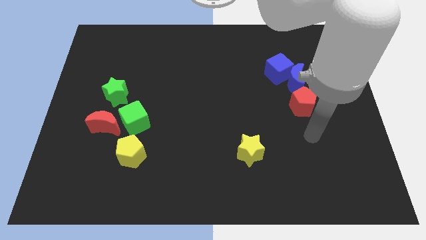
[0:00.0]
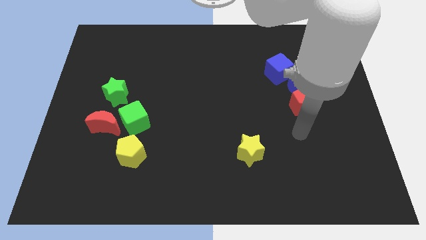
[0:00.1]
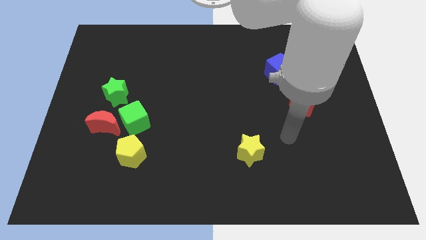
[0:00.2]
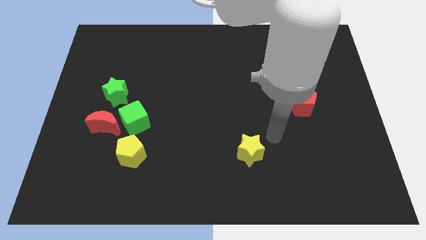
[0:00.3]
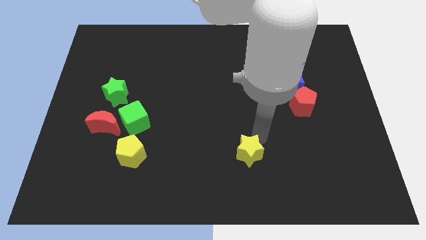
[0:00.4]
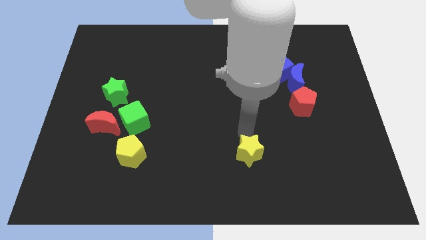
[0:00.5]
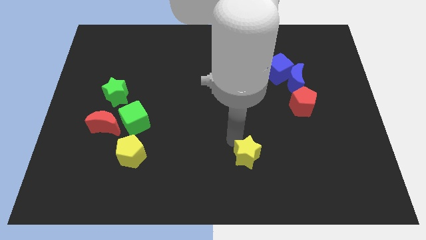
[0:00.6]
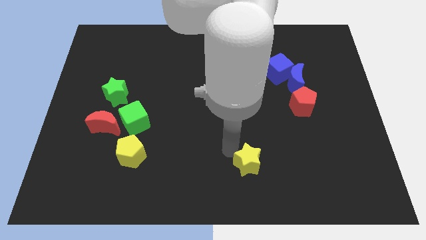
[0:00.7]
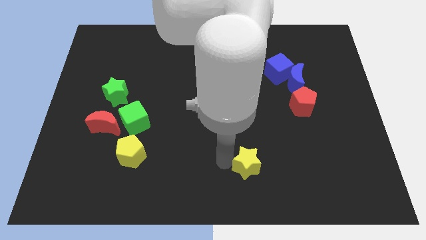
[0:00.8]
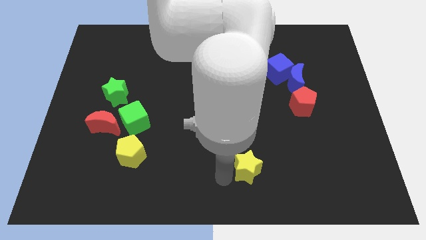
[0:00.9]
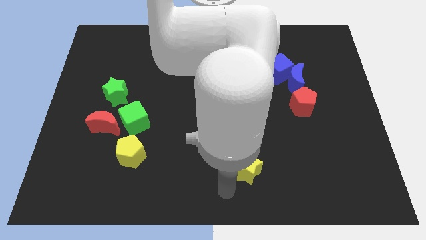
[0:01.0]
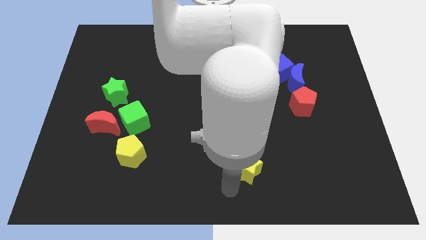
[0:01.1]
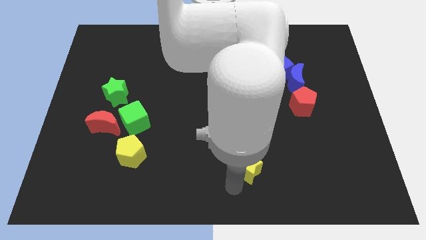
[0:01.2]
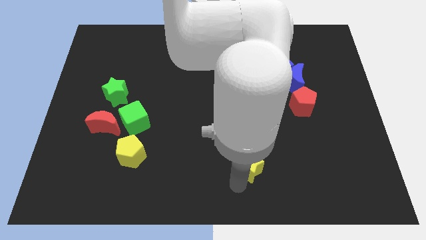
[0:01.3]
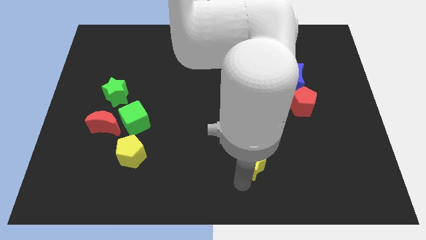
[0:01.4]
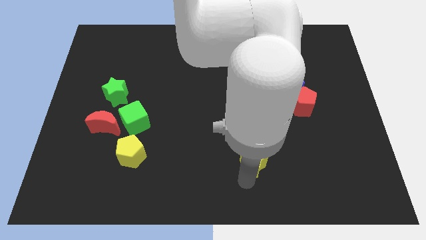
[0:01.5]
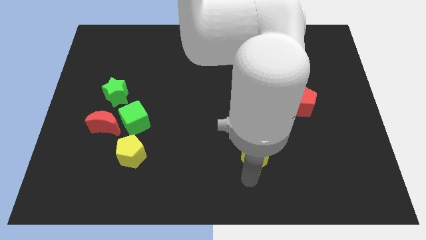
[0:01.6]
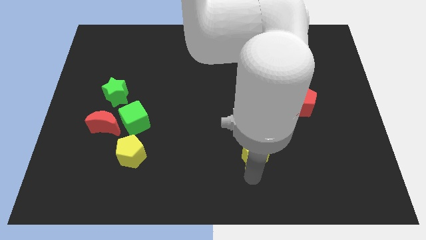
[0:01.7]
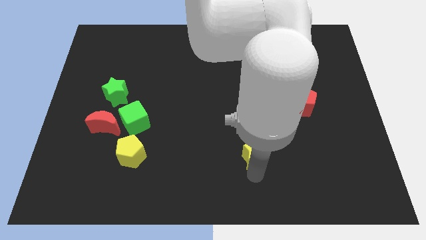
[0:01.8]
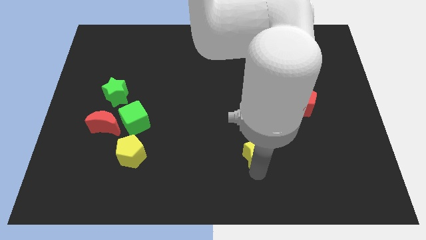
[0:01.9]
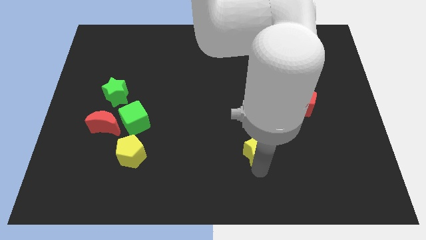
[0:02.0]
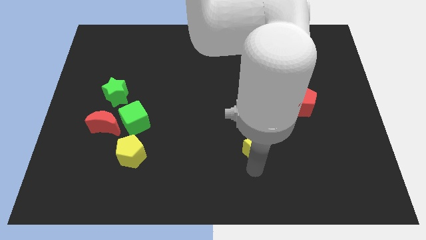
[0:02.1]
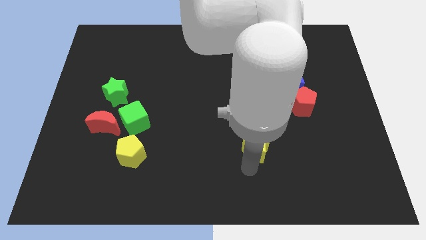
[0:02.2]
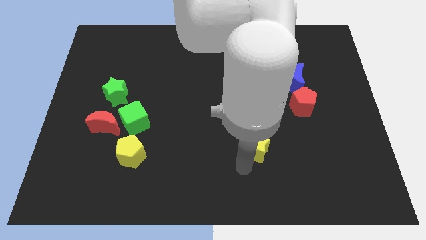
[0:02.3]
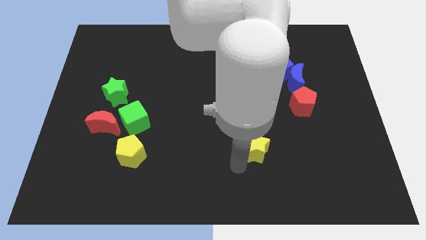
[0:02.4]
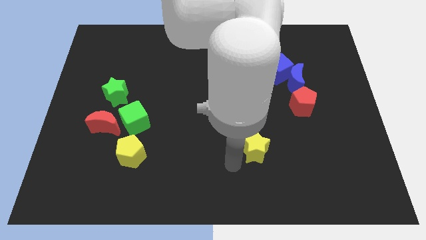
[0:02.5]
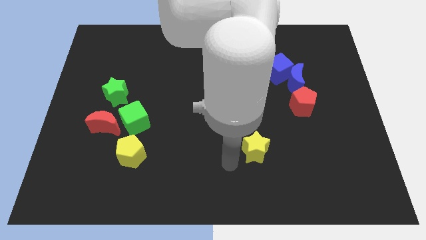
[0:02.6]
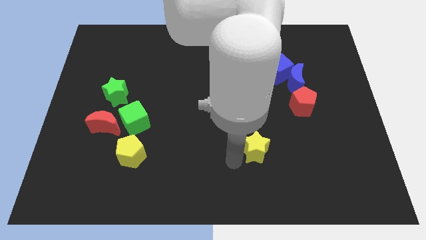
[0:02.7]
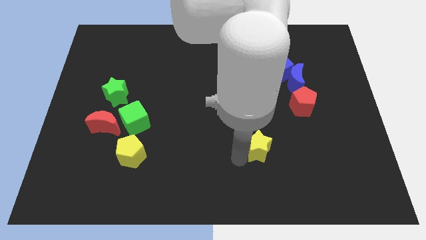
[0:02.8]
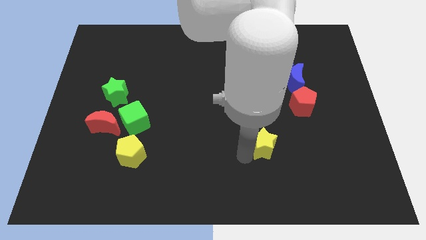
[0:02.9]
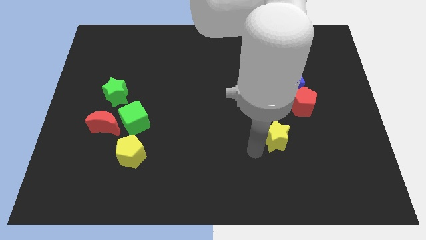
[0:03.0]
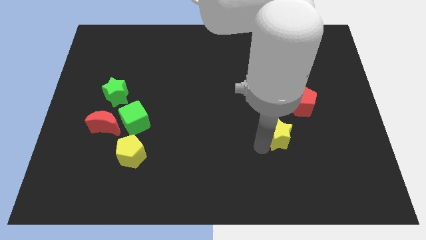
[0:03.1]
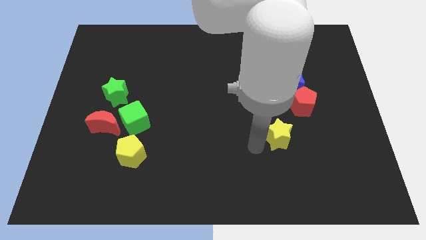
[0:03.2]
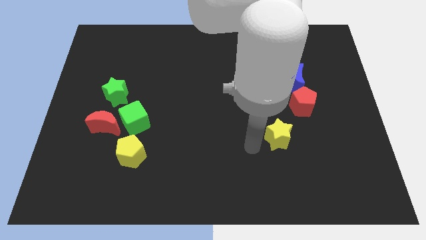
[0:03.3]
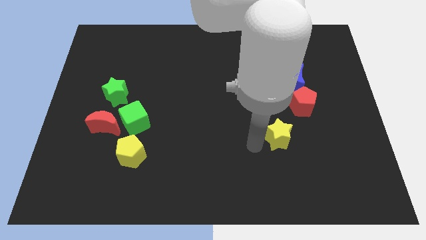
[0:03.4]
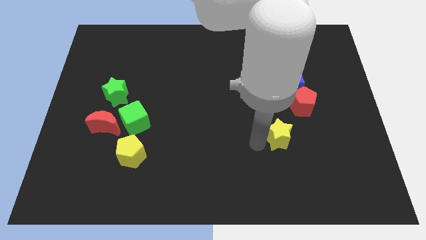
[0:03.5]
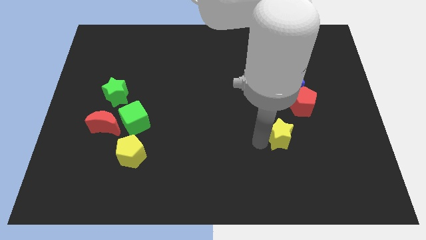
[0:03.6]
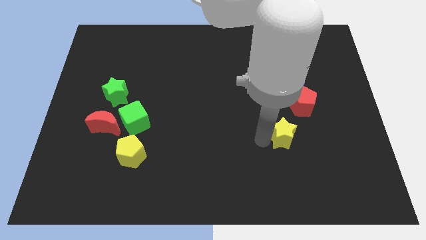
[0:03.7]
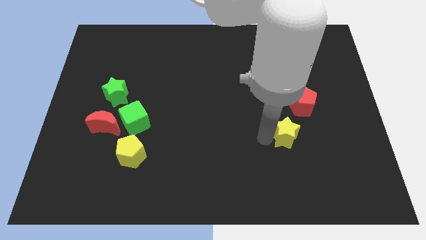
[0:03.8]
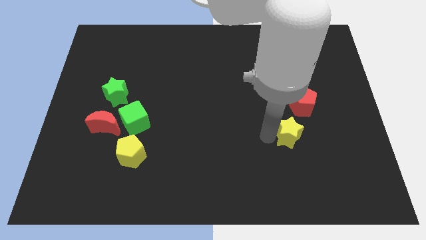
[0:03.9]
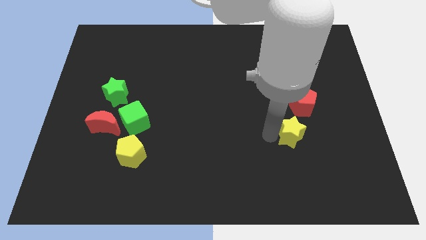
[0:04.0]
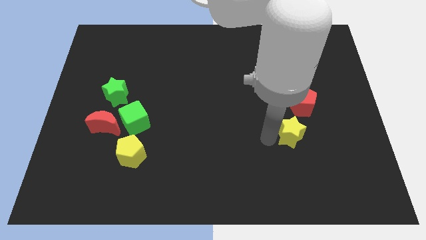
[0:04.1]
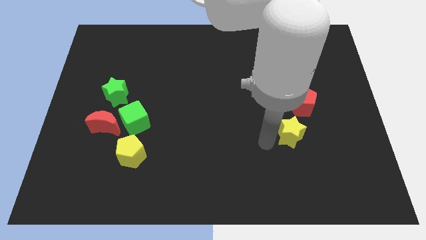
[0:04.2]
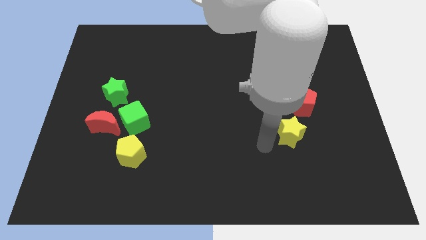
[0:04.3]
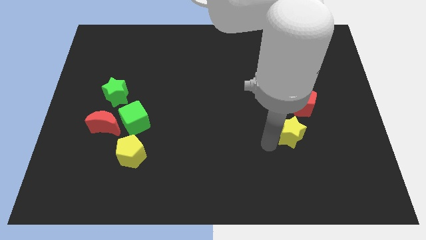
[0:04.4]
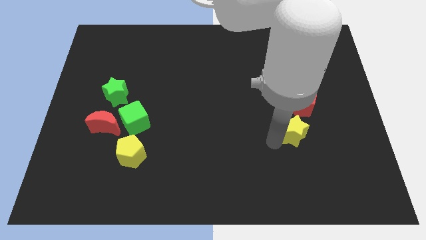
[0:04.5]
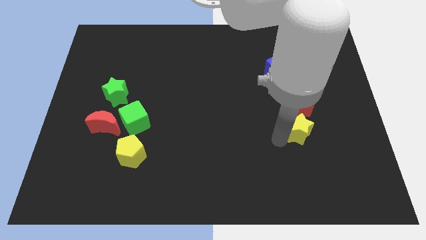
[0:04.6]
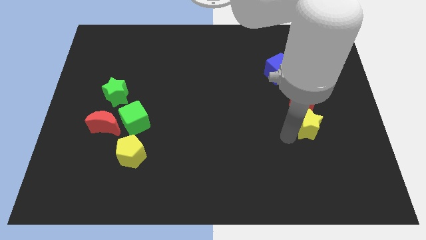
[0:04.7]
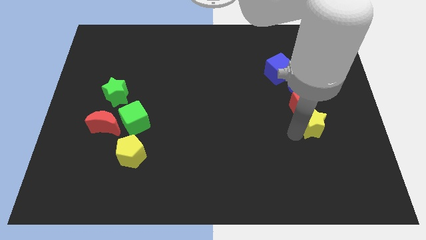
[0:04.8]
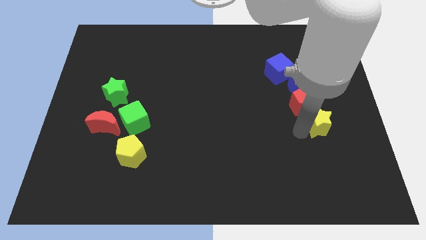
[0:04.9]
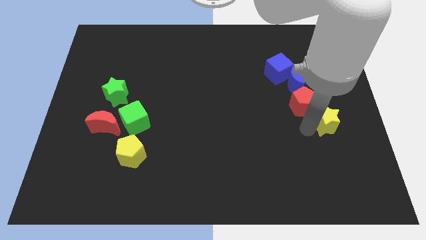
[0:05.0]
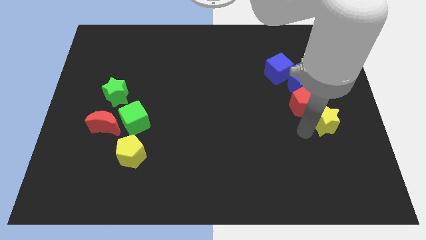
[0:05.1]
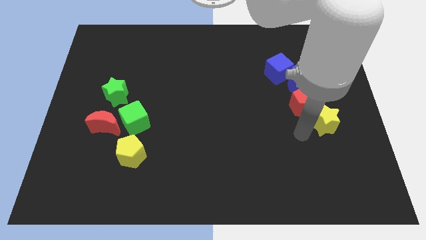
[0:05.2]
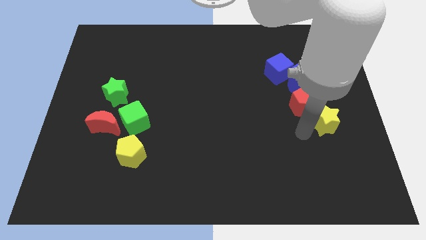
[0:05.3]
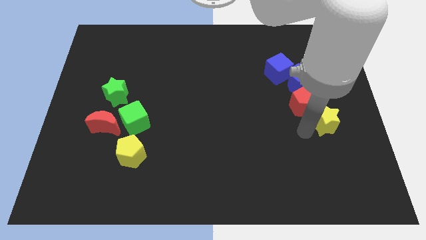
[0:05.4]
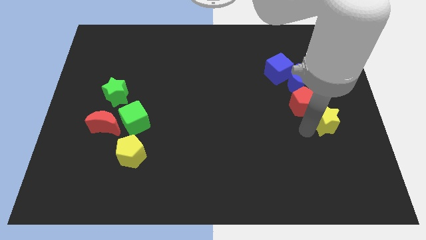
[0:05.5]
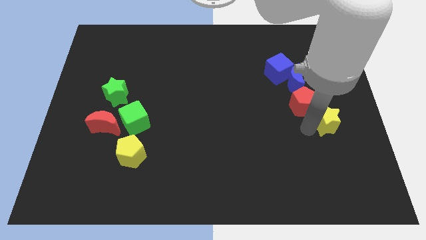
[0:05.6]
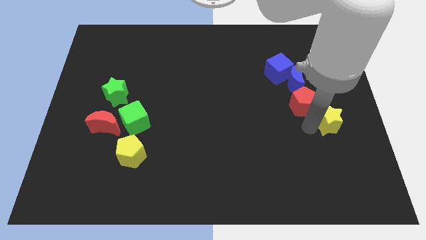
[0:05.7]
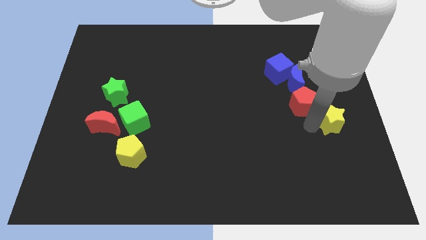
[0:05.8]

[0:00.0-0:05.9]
slide the yellow star to the right side of the board

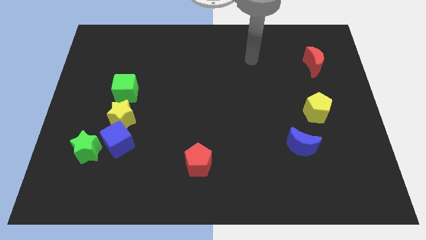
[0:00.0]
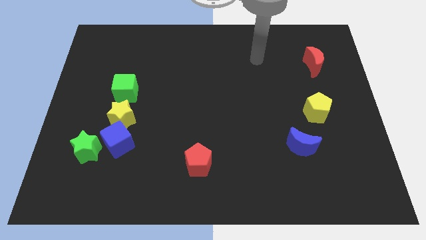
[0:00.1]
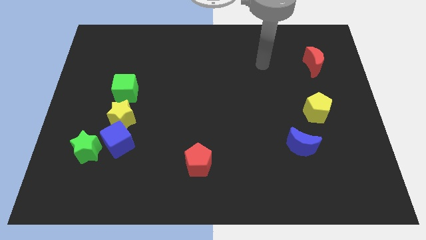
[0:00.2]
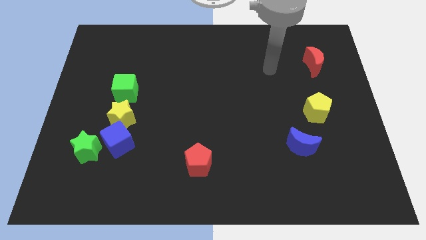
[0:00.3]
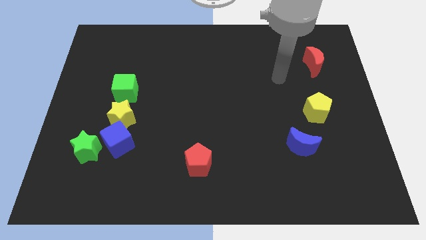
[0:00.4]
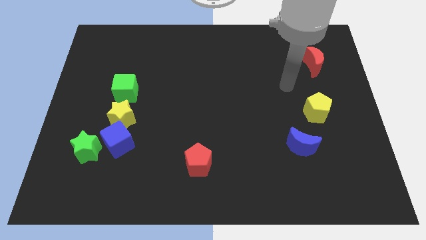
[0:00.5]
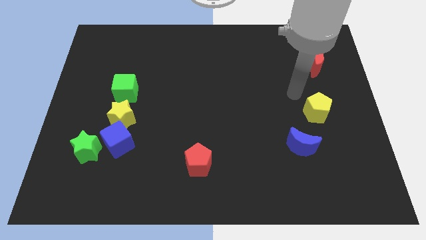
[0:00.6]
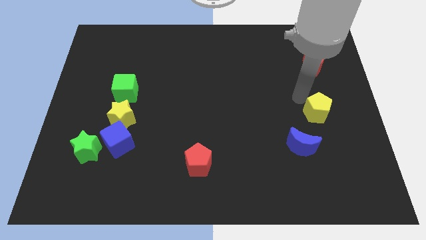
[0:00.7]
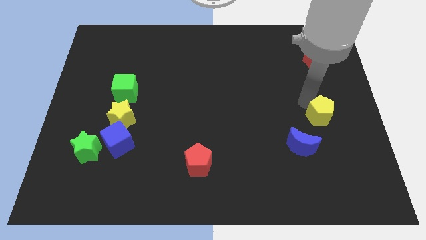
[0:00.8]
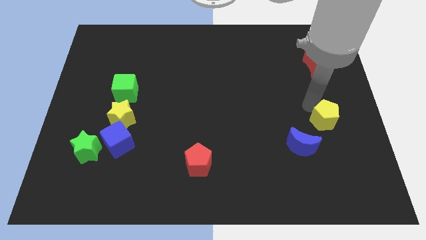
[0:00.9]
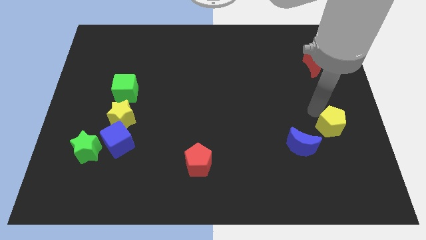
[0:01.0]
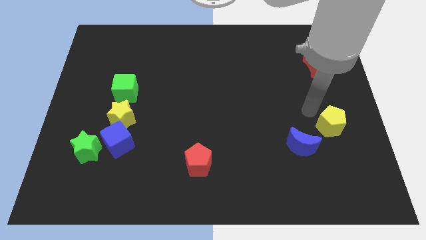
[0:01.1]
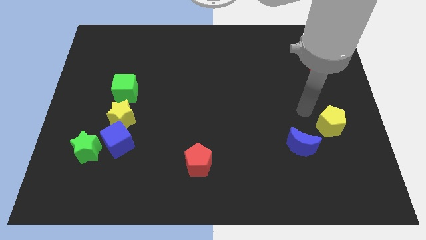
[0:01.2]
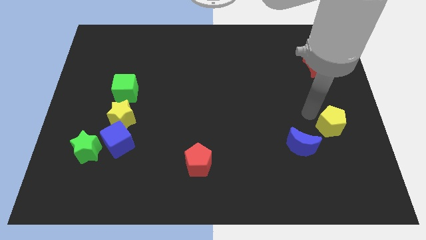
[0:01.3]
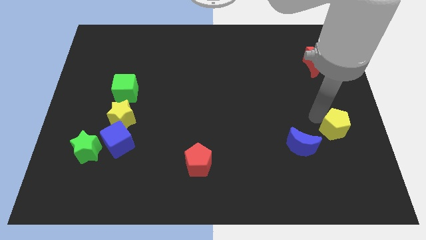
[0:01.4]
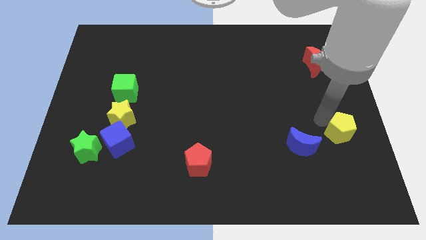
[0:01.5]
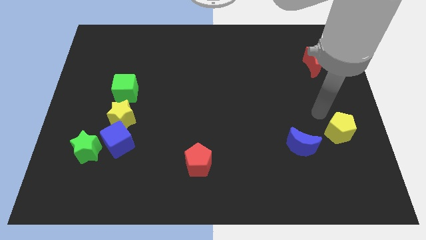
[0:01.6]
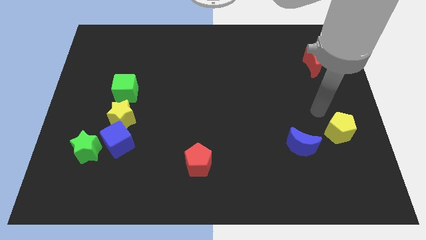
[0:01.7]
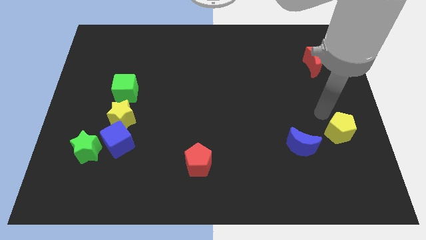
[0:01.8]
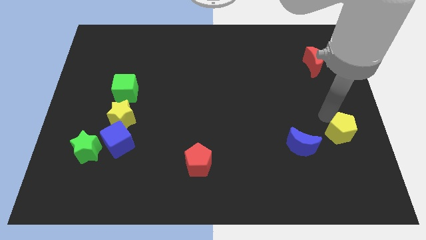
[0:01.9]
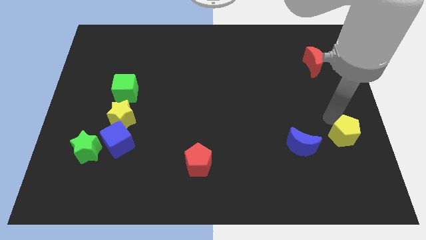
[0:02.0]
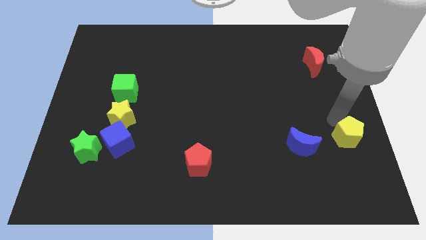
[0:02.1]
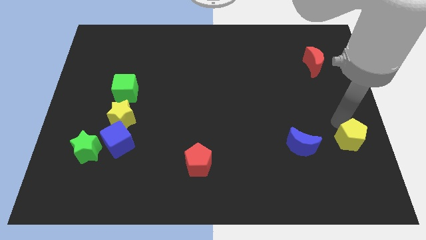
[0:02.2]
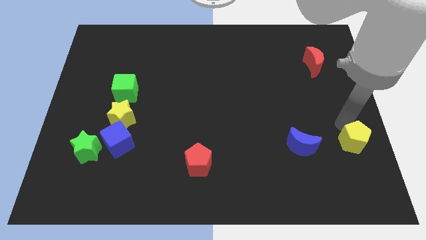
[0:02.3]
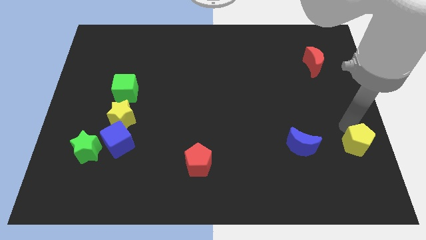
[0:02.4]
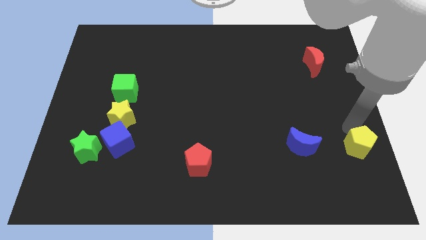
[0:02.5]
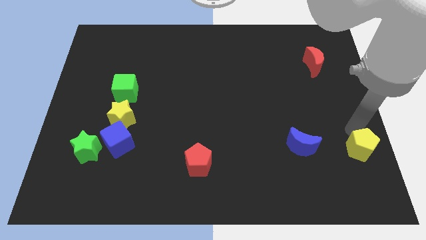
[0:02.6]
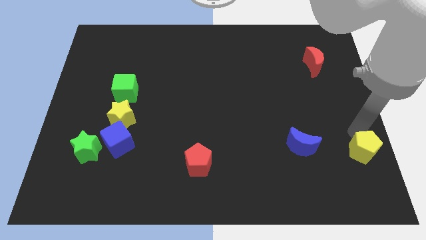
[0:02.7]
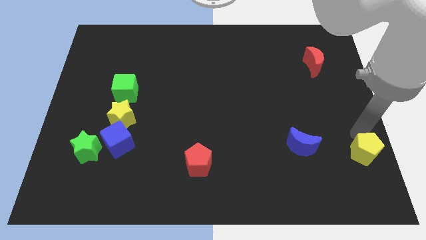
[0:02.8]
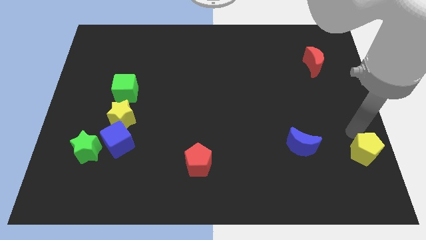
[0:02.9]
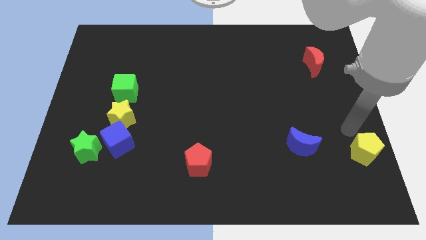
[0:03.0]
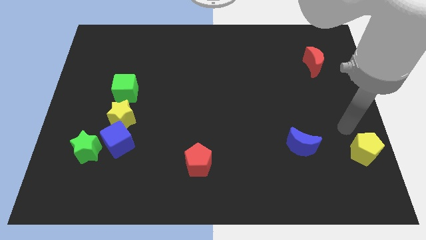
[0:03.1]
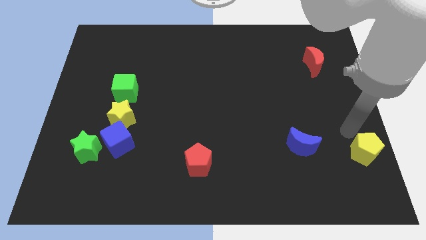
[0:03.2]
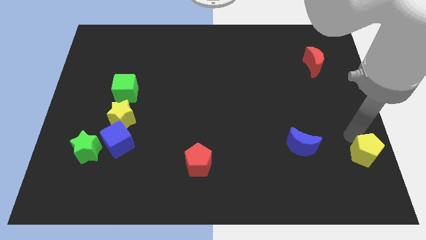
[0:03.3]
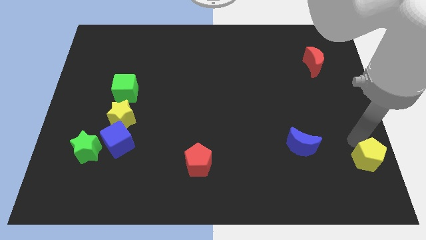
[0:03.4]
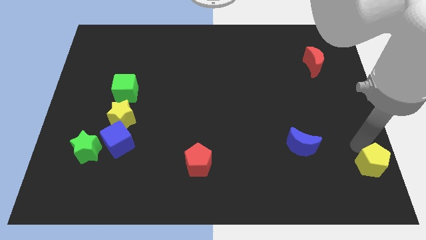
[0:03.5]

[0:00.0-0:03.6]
slide the yellow pentagon to the bottom right of the board
